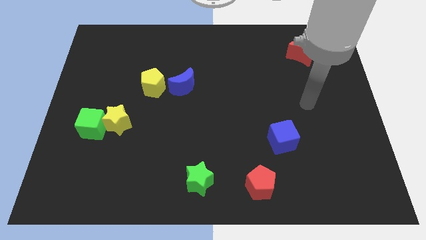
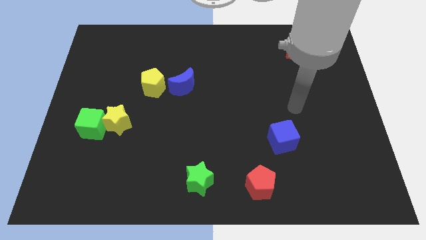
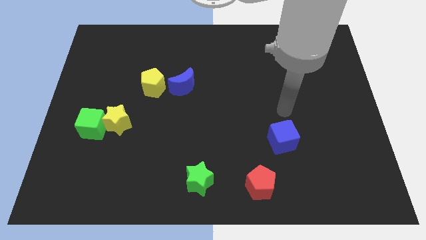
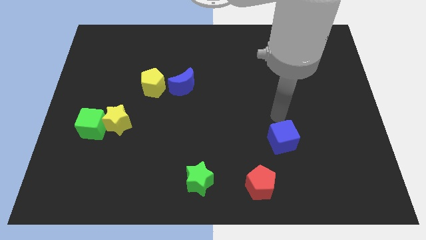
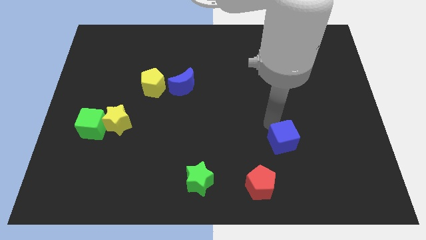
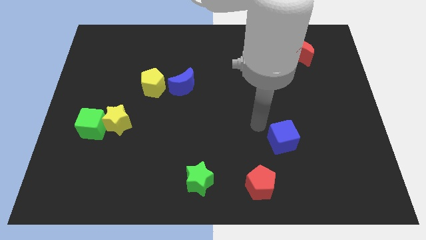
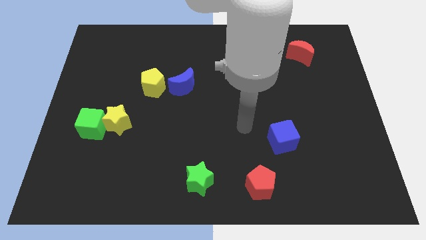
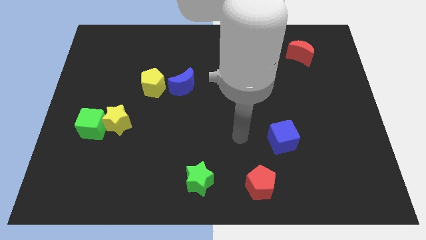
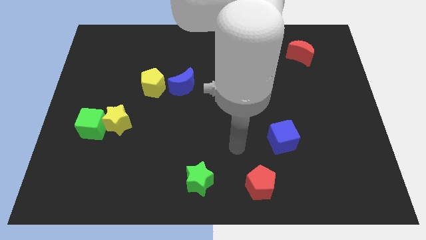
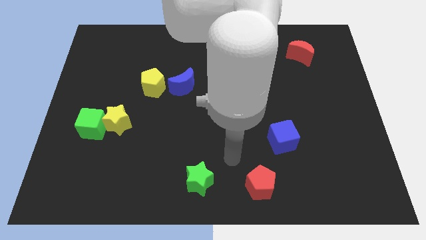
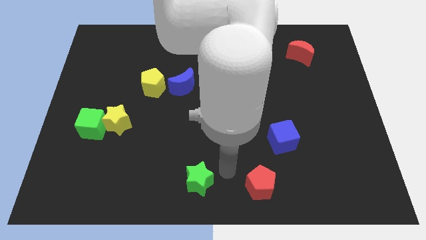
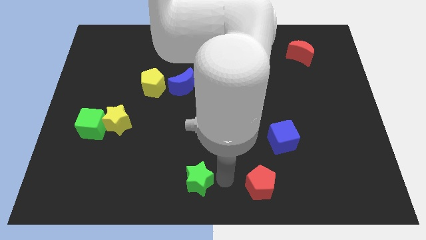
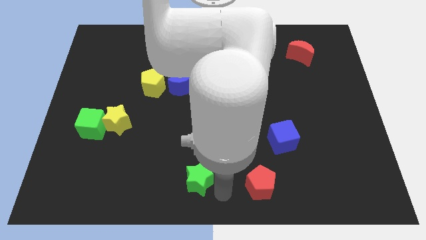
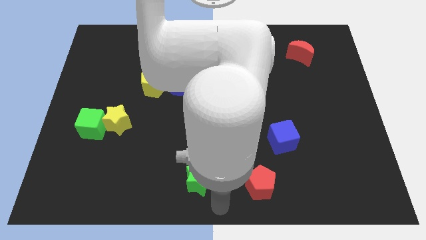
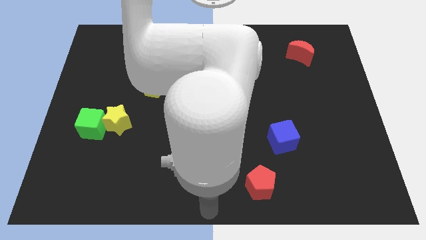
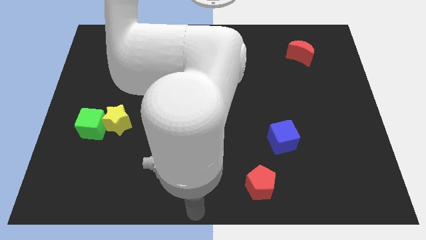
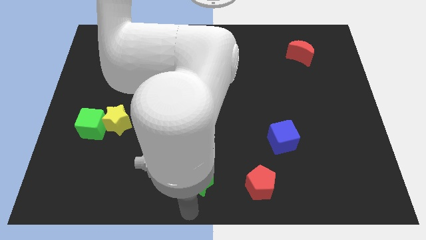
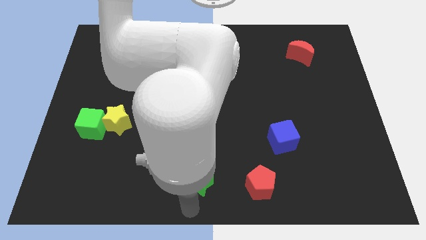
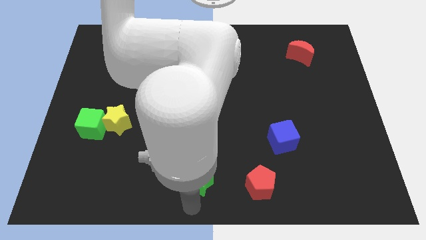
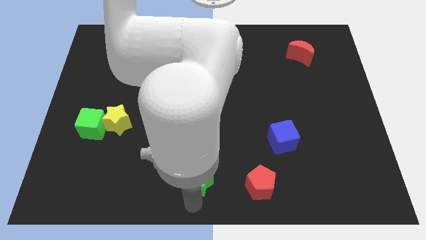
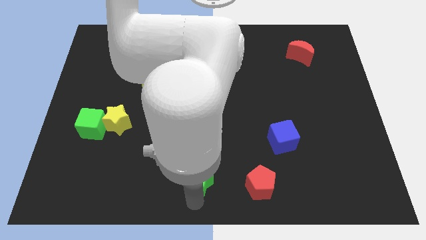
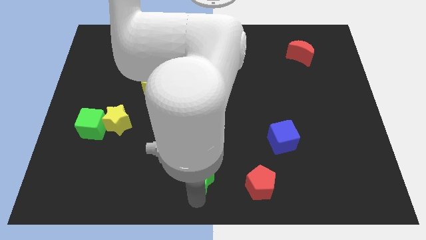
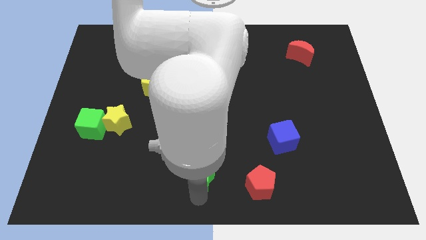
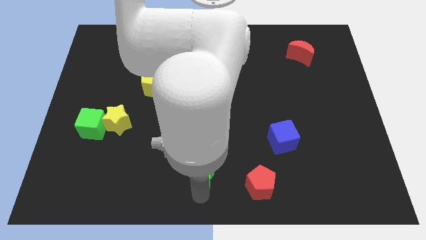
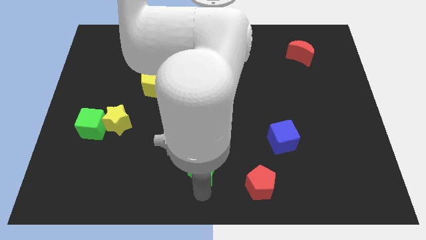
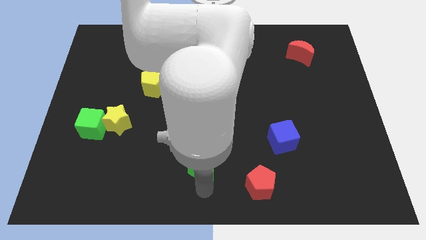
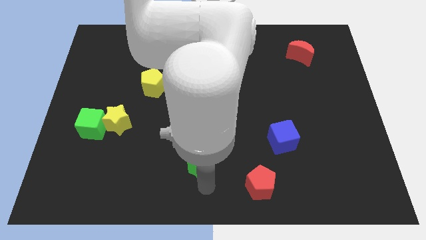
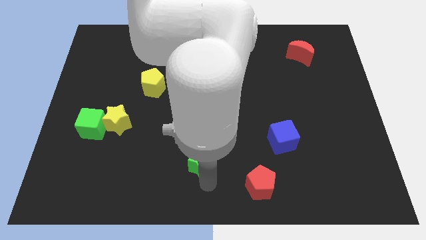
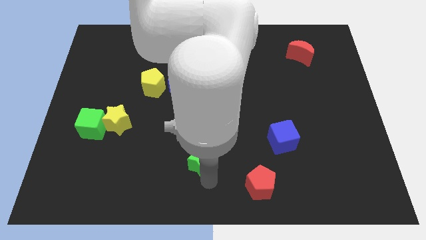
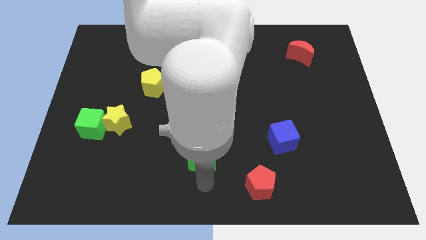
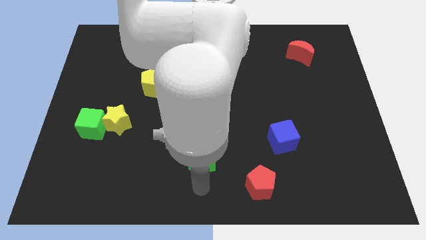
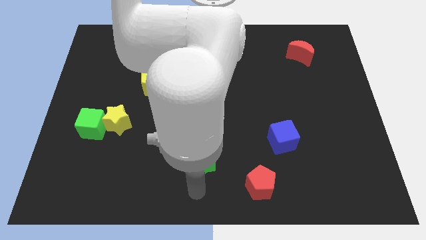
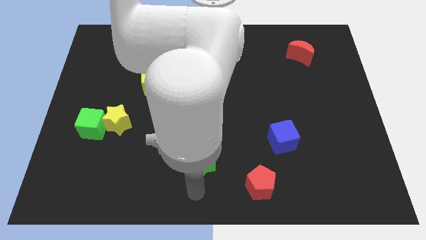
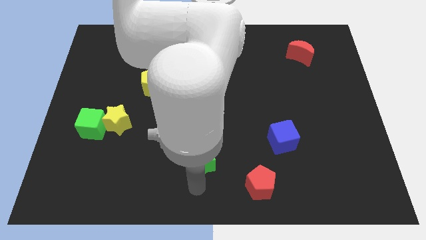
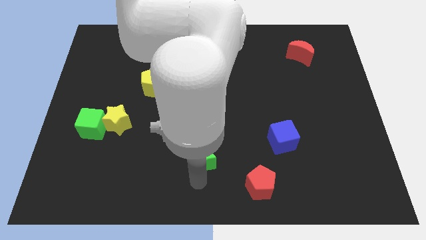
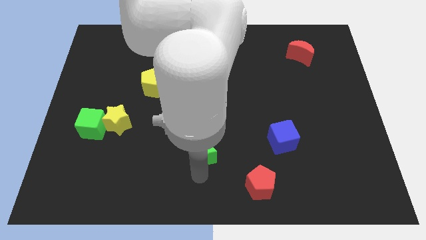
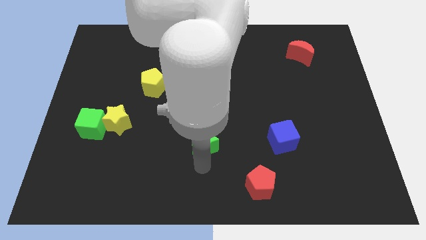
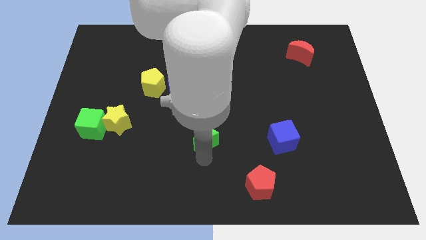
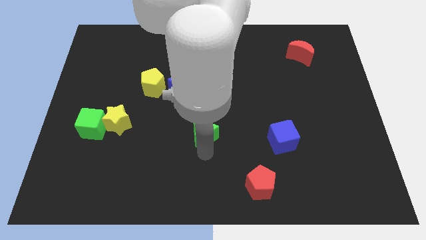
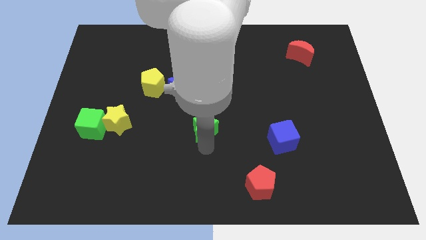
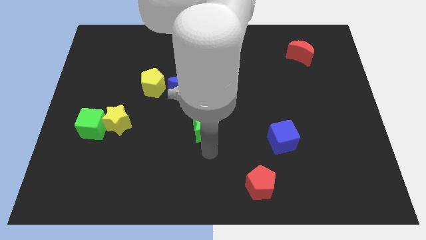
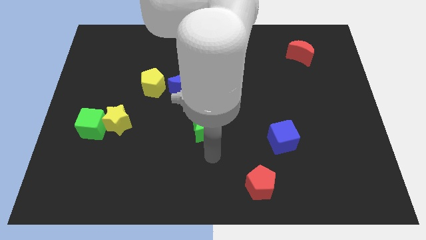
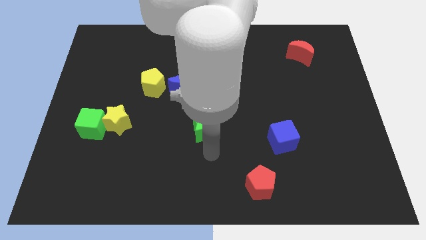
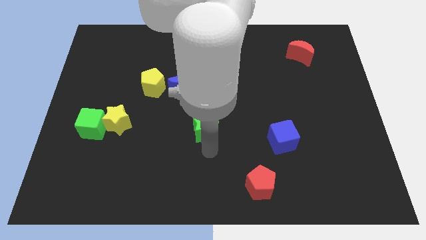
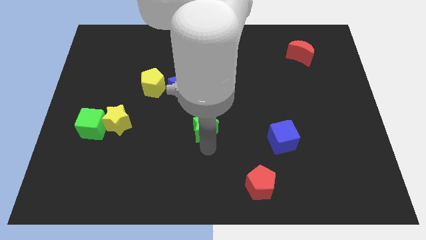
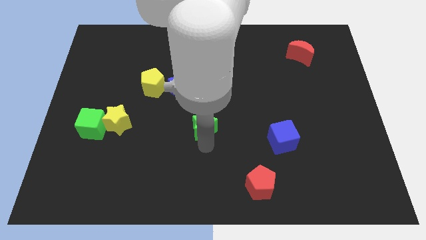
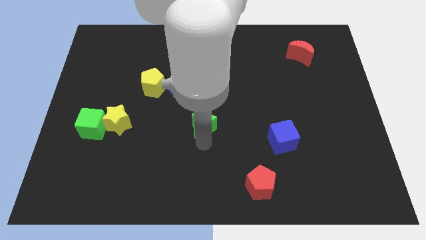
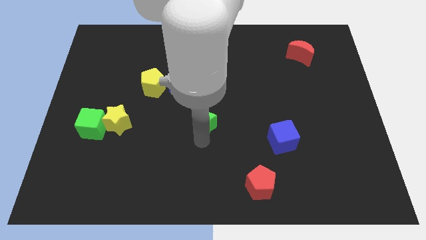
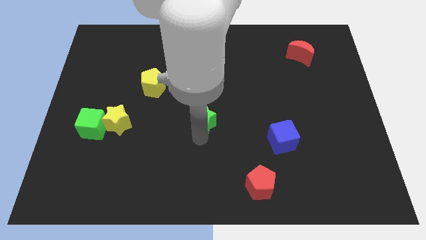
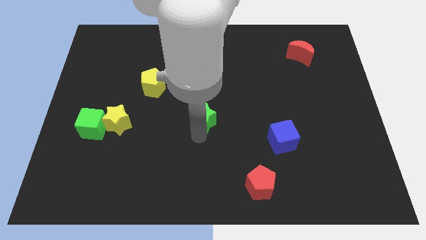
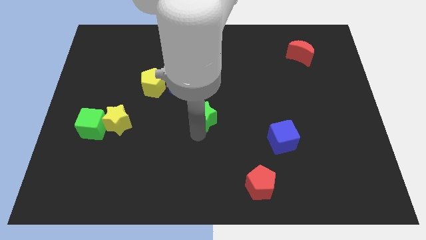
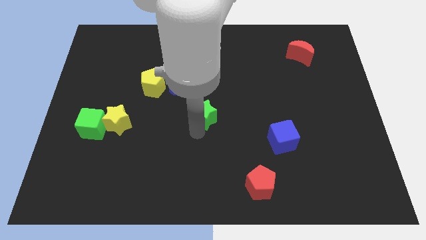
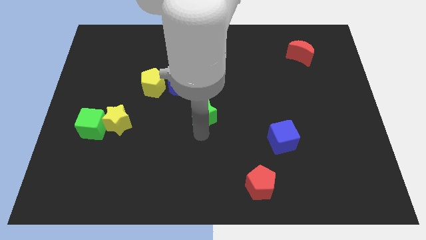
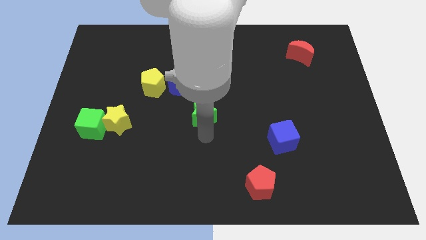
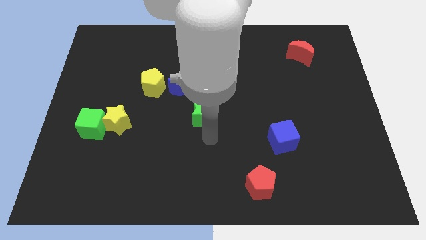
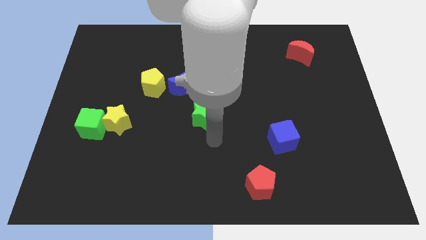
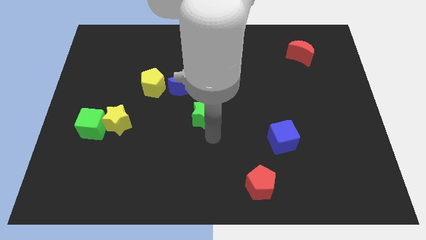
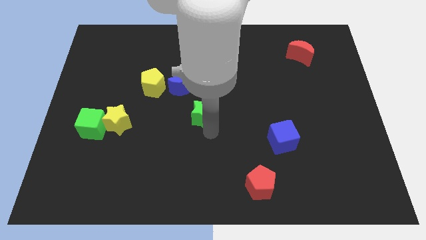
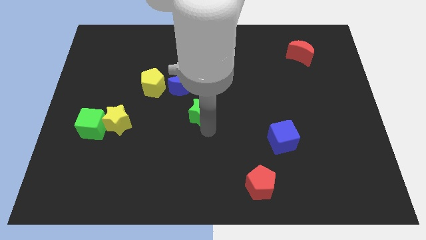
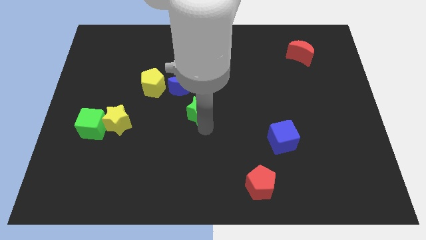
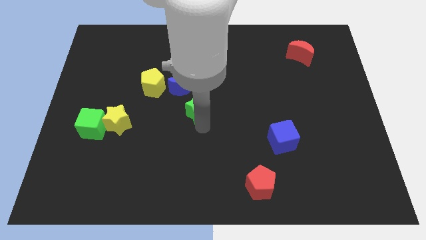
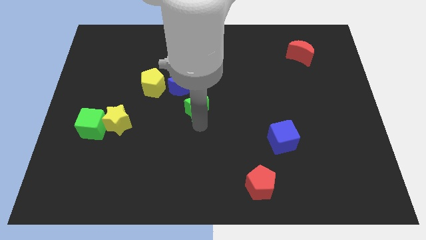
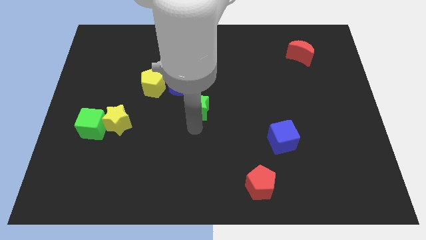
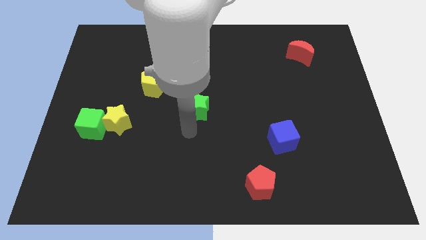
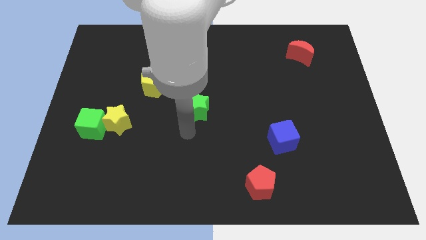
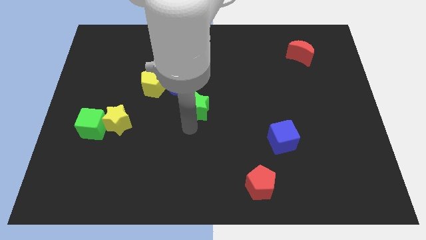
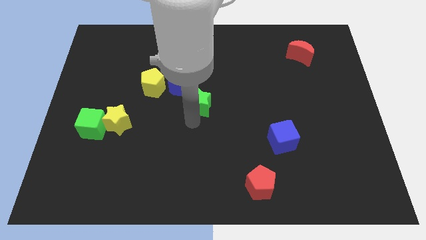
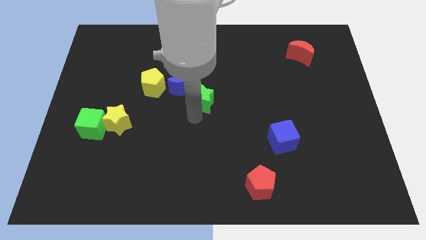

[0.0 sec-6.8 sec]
move the green star up

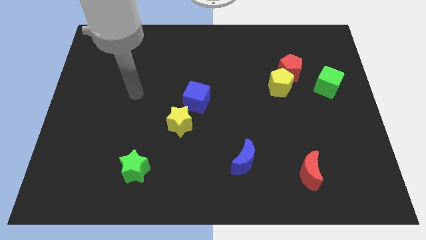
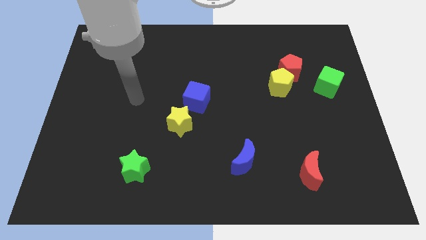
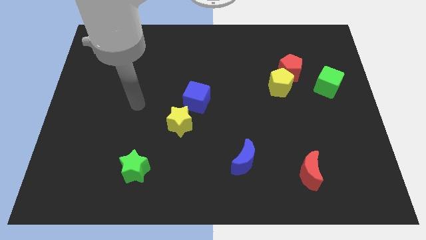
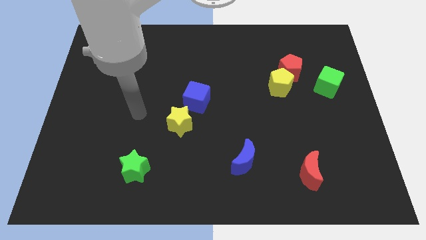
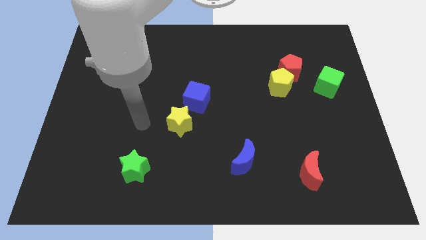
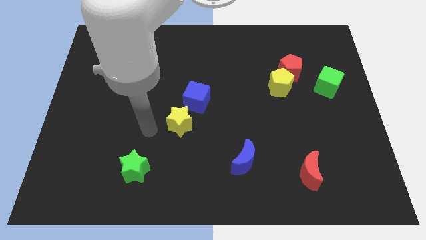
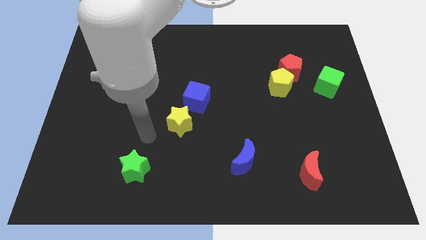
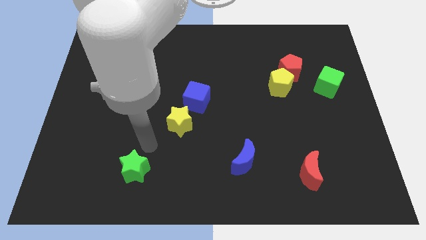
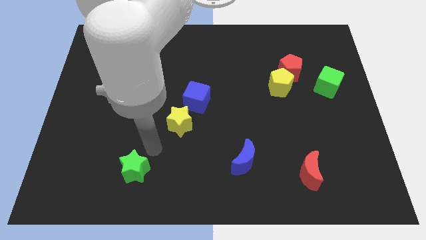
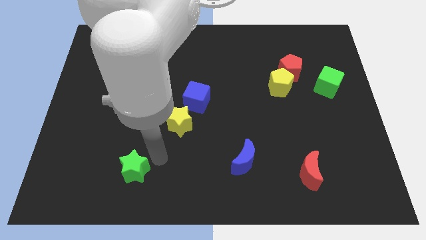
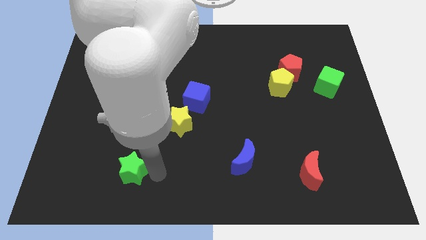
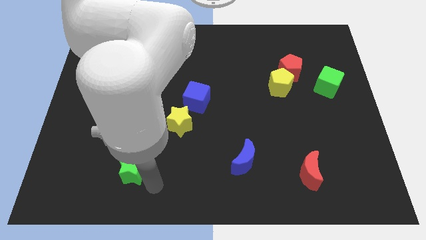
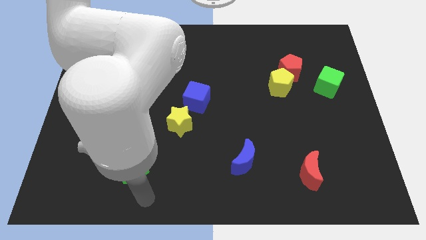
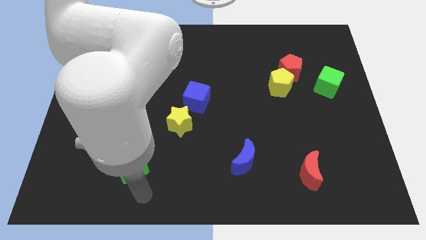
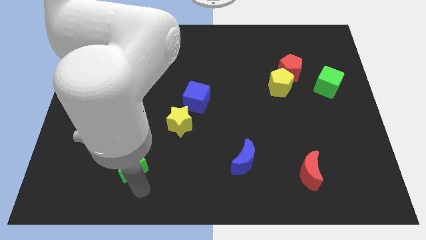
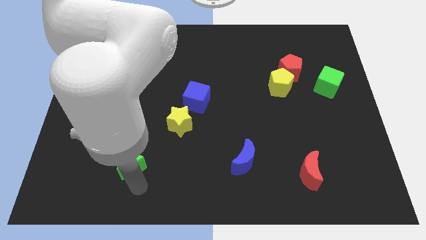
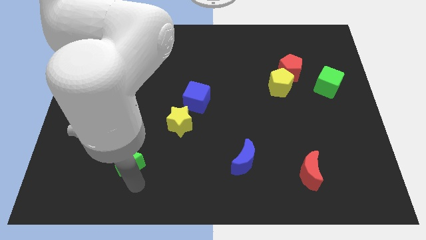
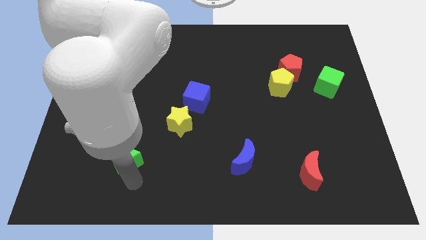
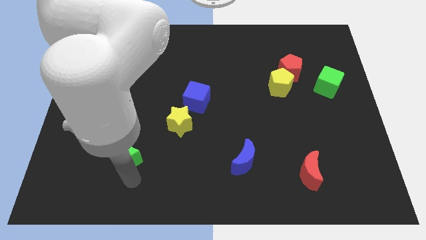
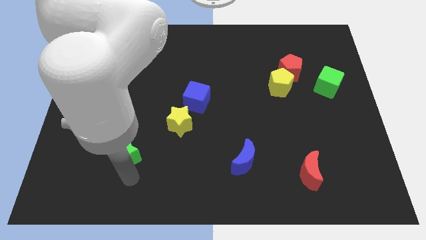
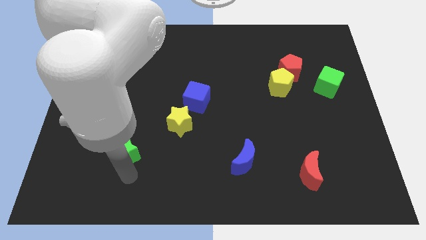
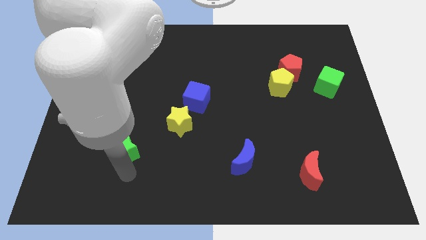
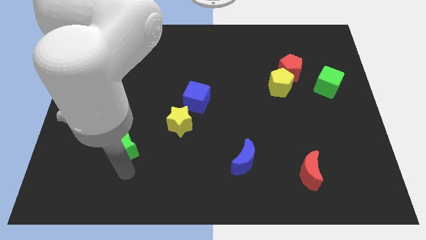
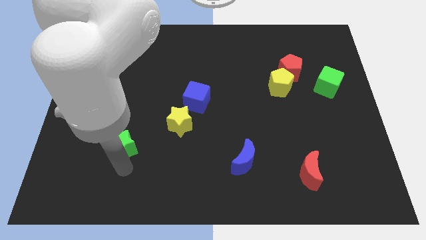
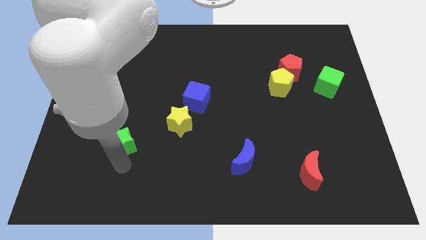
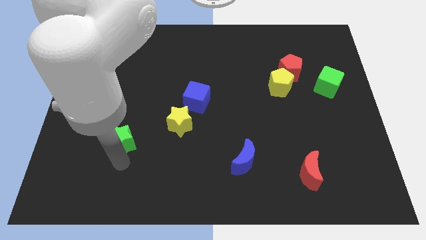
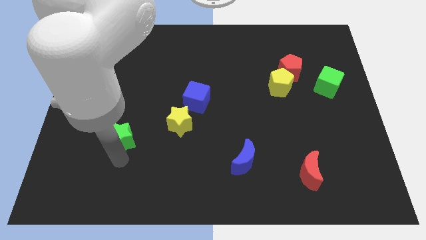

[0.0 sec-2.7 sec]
slightly slide the green star upwards
